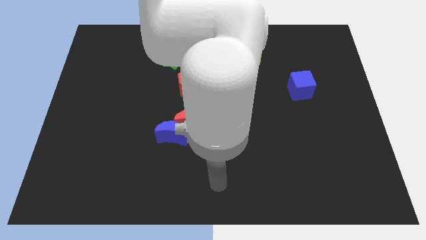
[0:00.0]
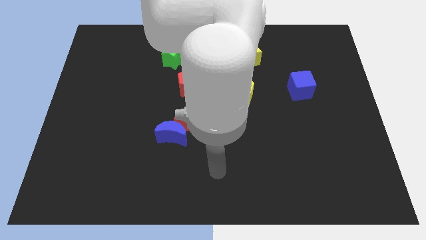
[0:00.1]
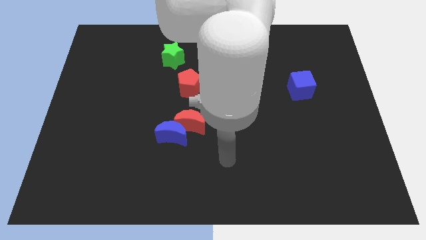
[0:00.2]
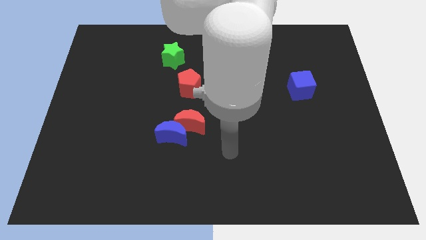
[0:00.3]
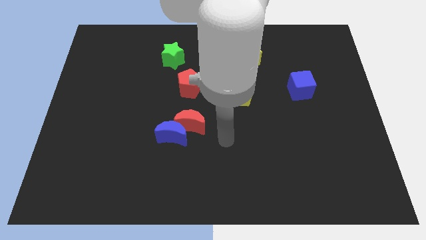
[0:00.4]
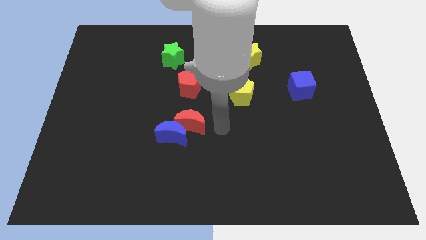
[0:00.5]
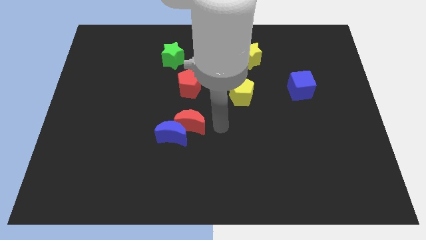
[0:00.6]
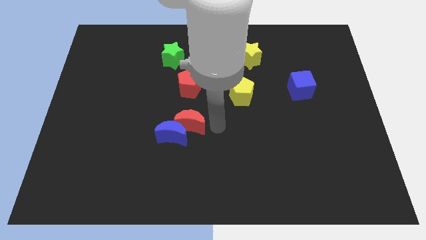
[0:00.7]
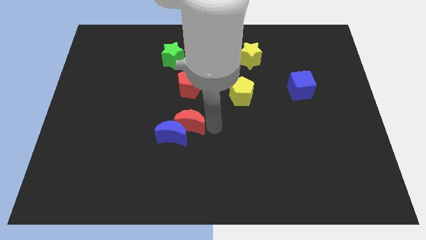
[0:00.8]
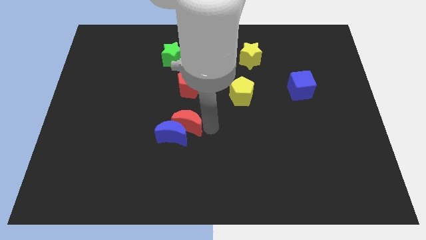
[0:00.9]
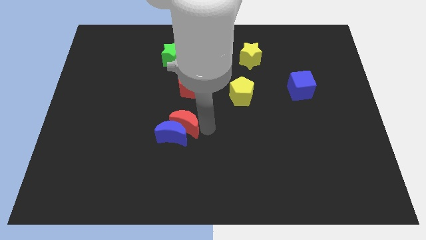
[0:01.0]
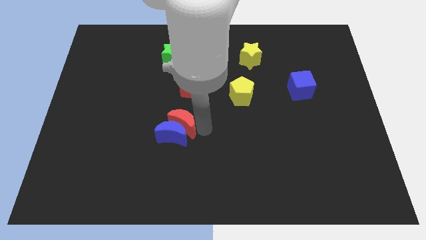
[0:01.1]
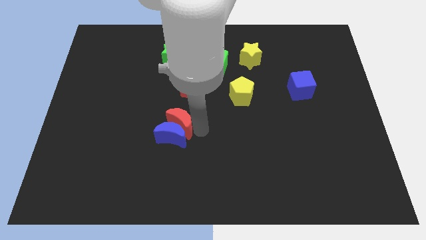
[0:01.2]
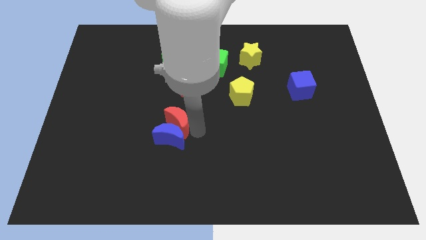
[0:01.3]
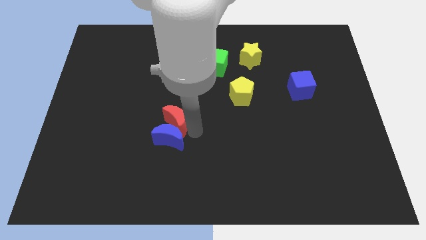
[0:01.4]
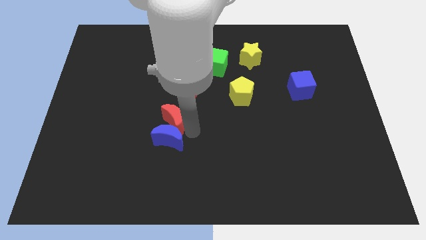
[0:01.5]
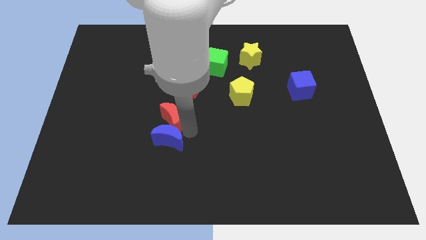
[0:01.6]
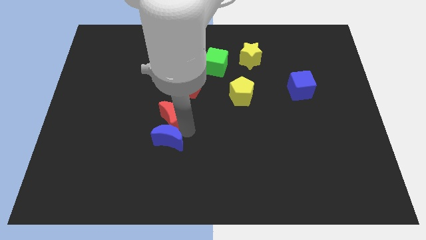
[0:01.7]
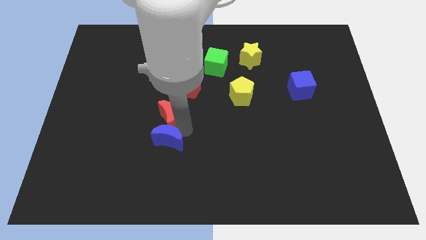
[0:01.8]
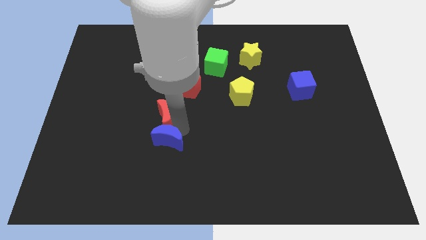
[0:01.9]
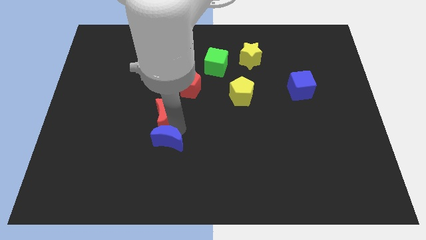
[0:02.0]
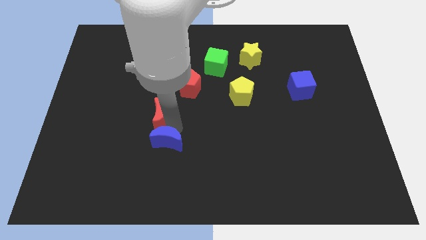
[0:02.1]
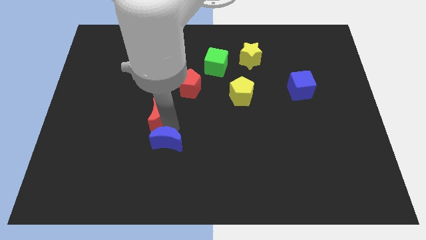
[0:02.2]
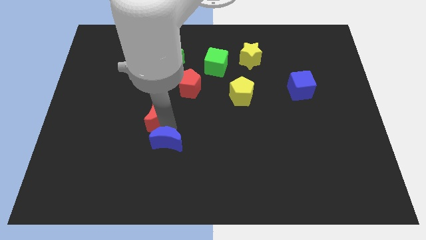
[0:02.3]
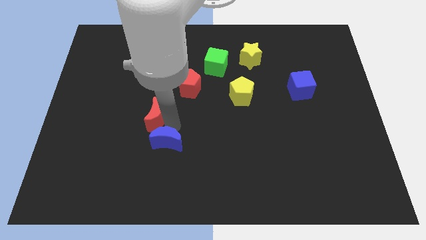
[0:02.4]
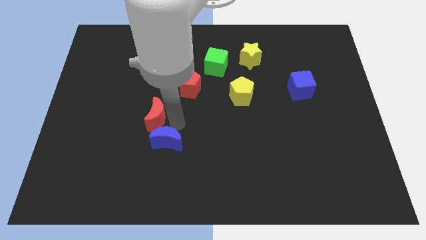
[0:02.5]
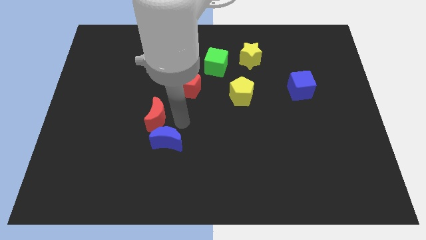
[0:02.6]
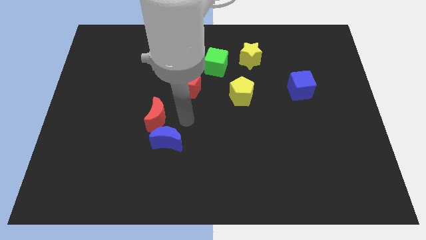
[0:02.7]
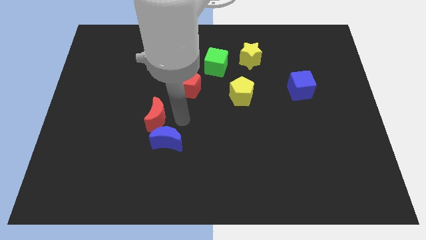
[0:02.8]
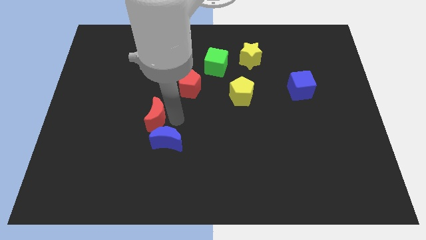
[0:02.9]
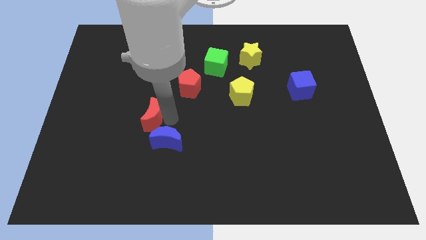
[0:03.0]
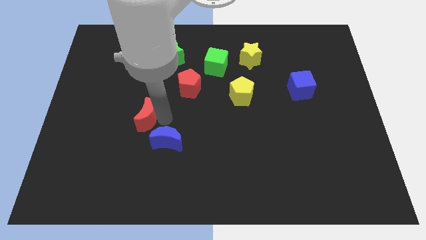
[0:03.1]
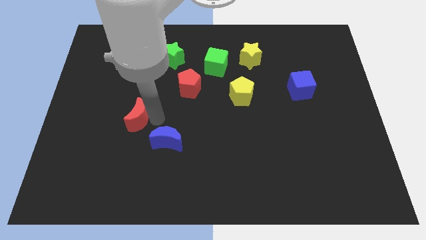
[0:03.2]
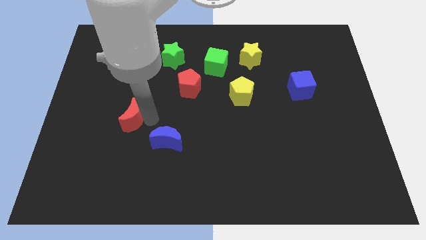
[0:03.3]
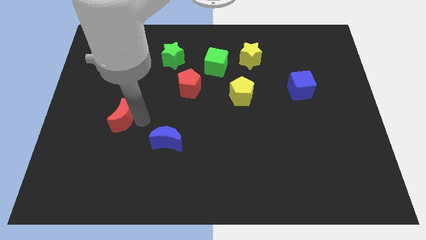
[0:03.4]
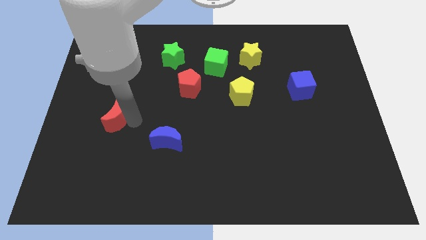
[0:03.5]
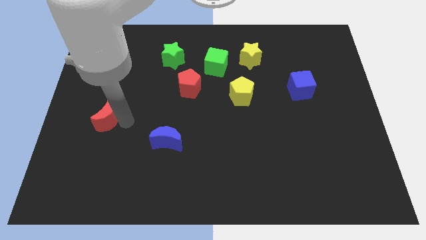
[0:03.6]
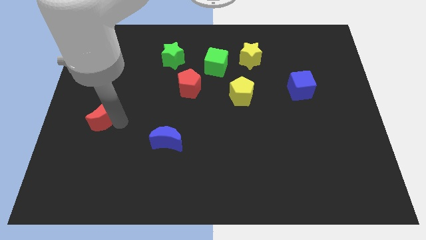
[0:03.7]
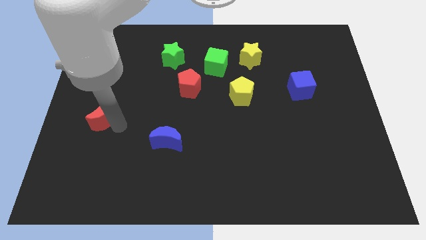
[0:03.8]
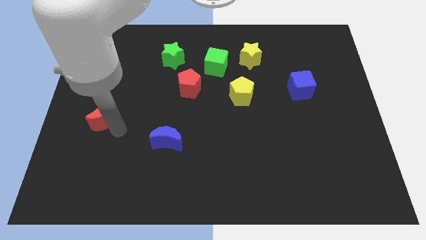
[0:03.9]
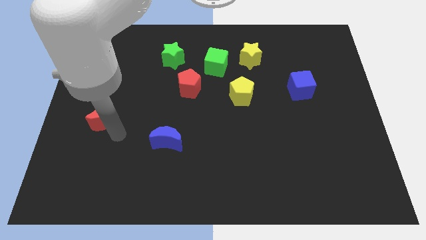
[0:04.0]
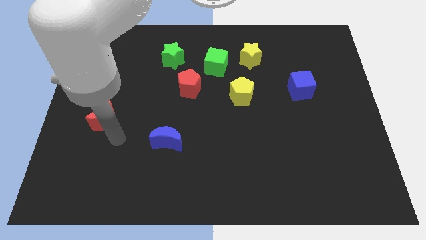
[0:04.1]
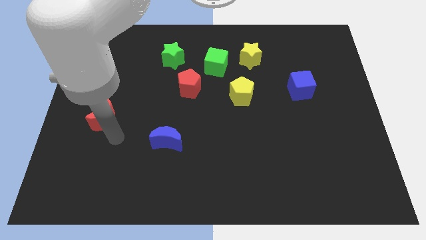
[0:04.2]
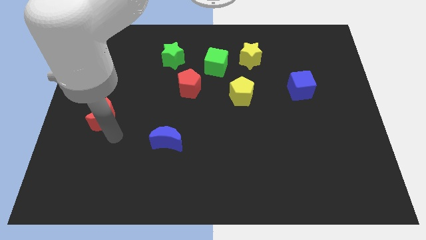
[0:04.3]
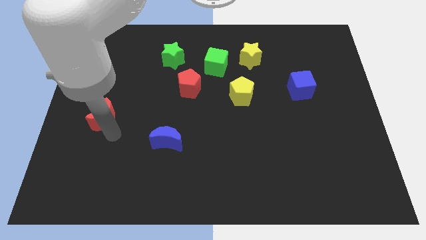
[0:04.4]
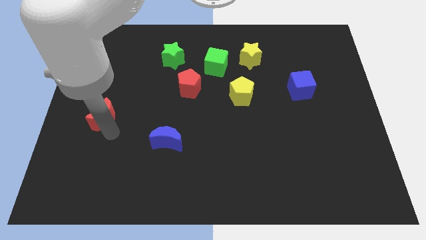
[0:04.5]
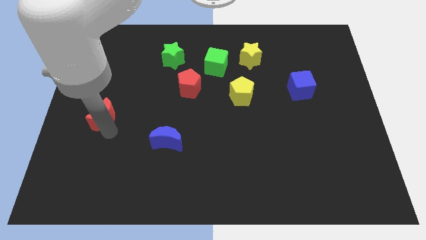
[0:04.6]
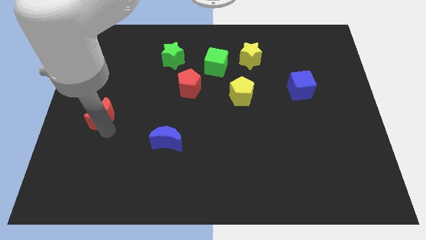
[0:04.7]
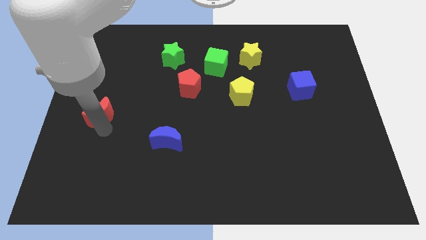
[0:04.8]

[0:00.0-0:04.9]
push the red moon to the left side of the board

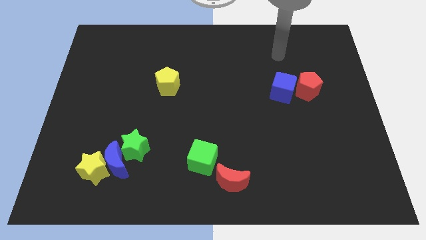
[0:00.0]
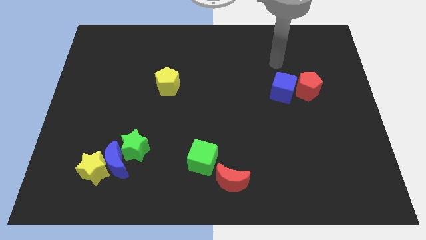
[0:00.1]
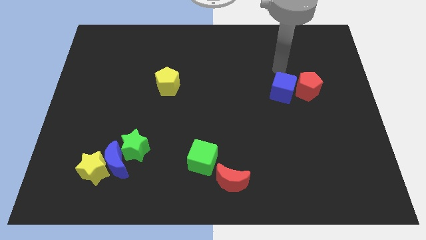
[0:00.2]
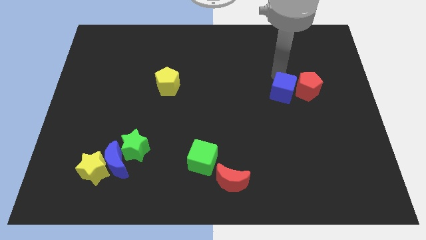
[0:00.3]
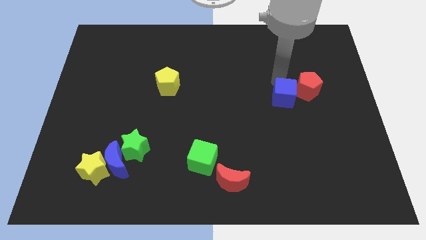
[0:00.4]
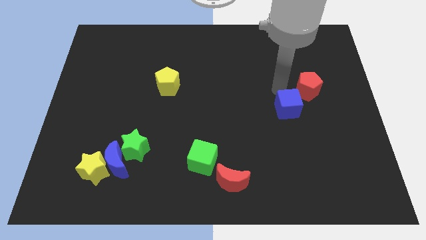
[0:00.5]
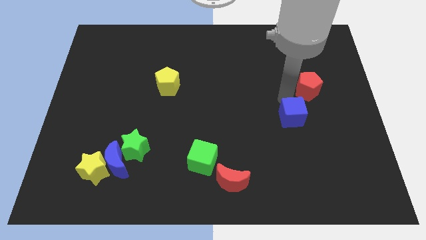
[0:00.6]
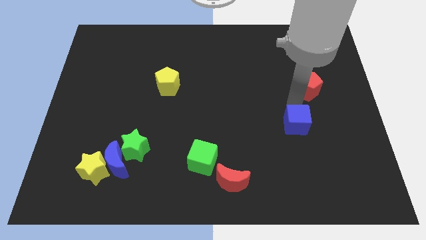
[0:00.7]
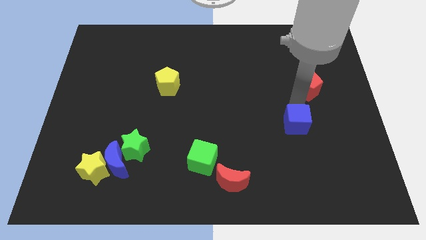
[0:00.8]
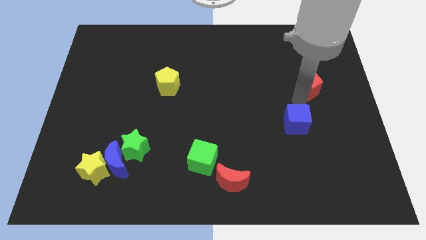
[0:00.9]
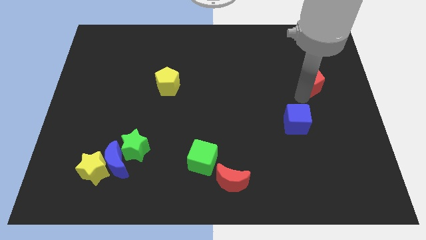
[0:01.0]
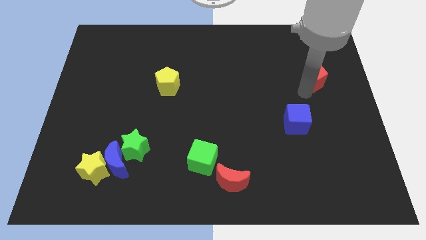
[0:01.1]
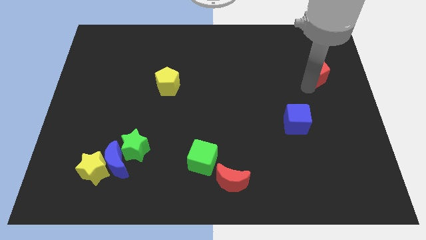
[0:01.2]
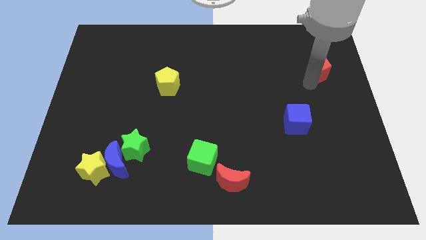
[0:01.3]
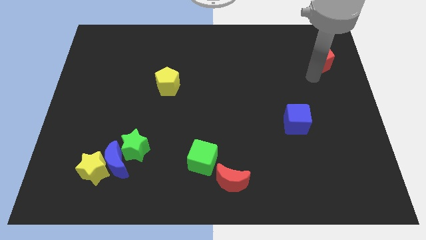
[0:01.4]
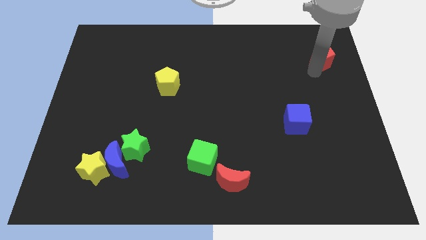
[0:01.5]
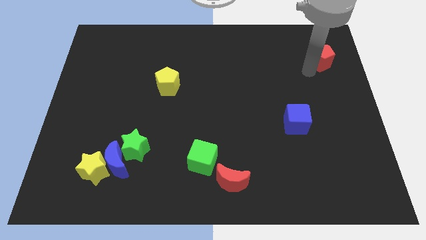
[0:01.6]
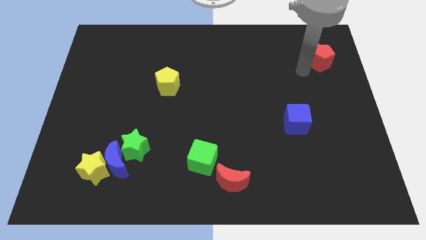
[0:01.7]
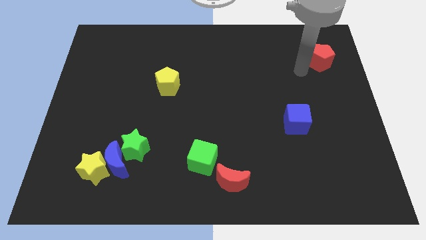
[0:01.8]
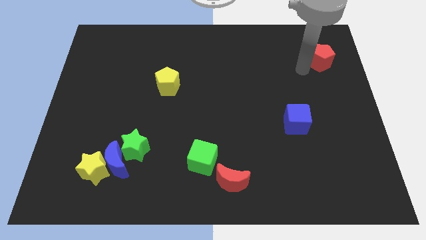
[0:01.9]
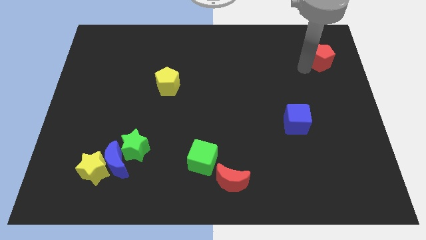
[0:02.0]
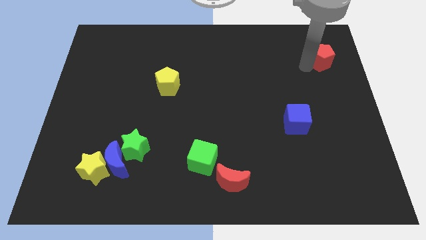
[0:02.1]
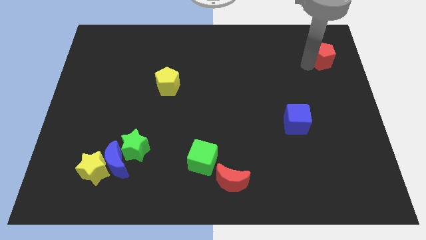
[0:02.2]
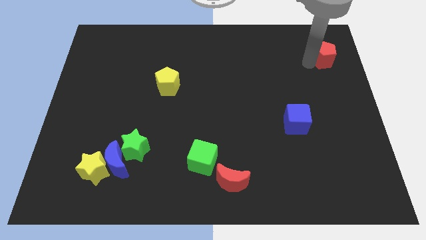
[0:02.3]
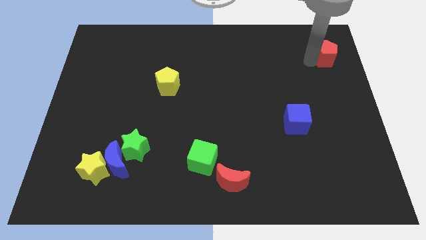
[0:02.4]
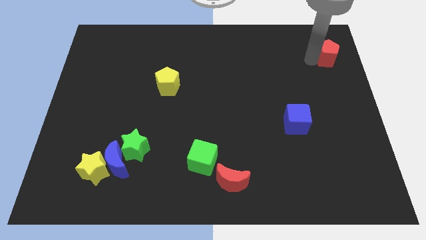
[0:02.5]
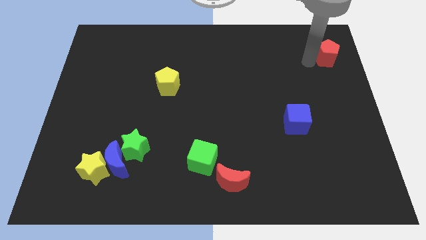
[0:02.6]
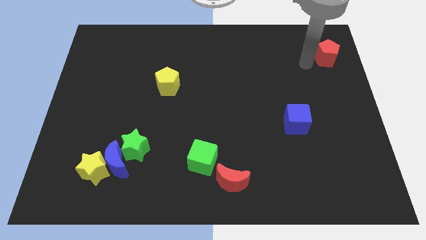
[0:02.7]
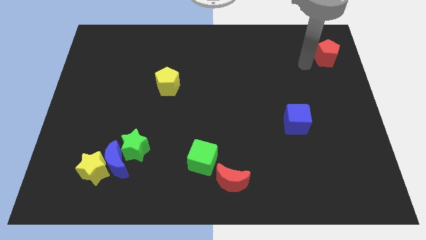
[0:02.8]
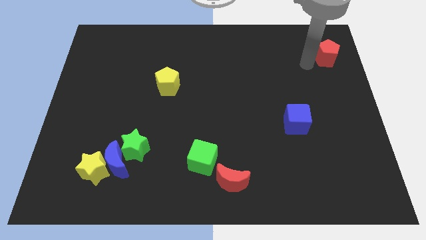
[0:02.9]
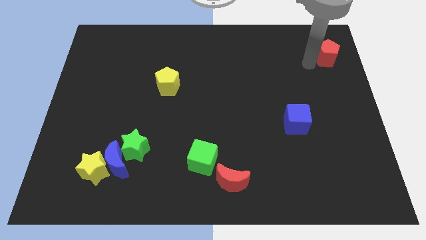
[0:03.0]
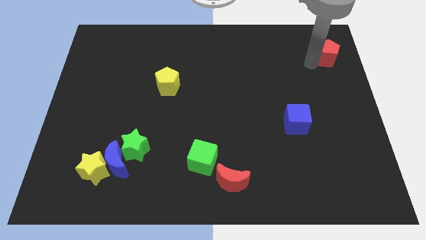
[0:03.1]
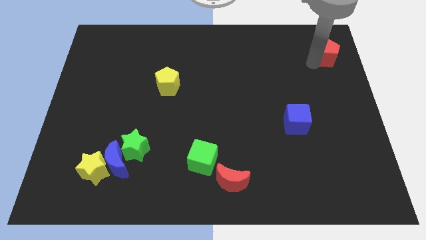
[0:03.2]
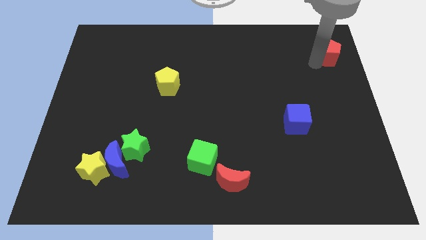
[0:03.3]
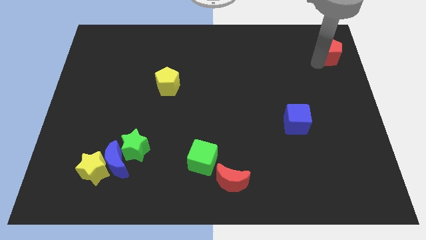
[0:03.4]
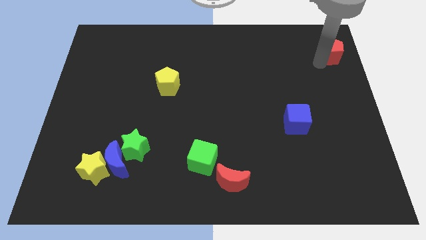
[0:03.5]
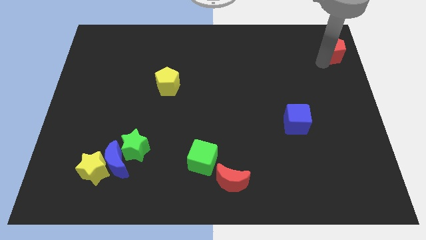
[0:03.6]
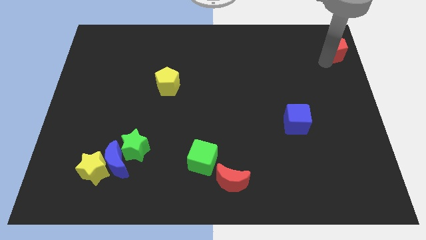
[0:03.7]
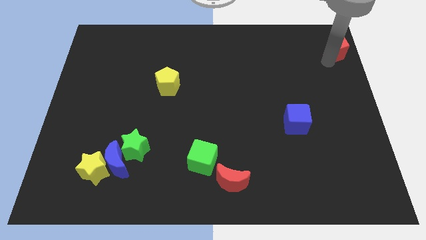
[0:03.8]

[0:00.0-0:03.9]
put the red pentagon to the top right
